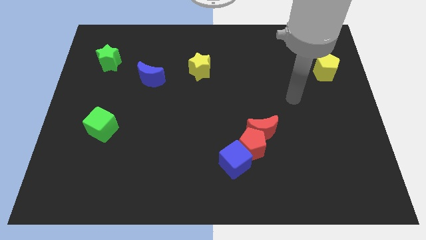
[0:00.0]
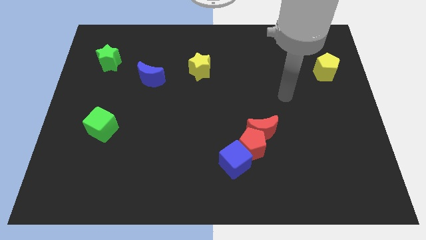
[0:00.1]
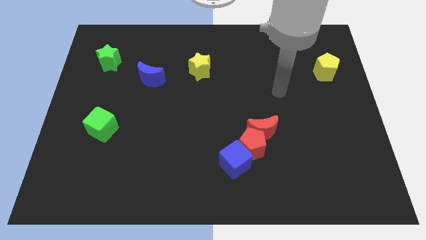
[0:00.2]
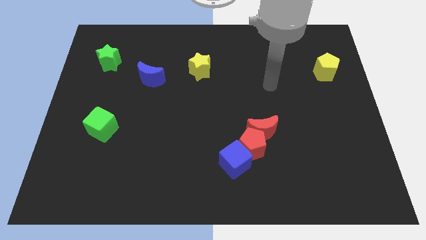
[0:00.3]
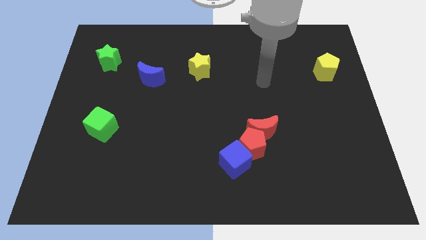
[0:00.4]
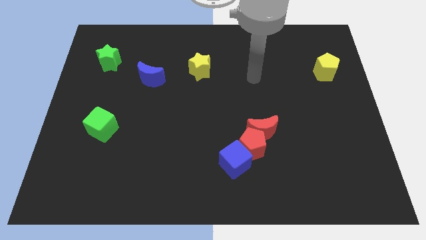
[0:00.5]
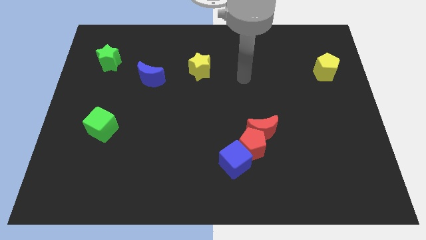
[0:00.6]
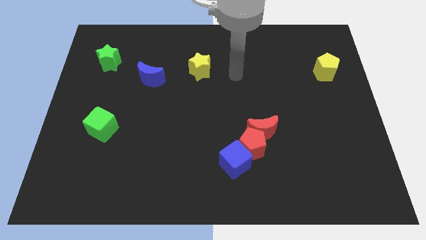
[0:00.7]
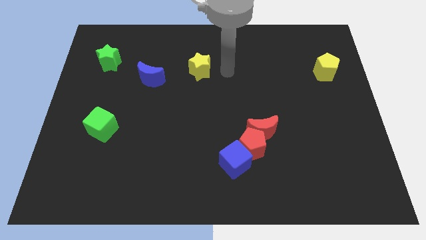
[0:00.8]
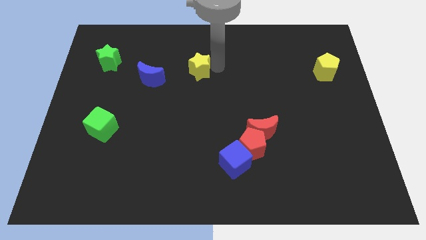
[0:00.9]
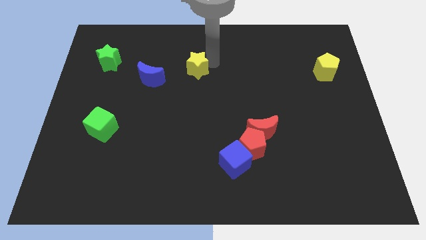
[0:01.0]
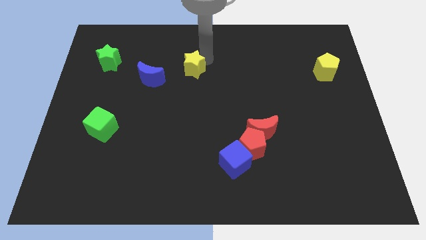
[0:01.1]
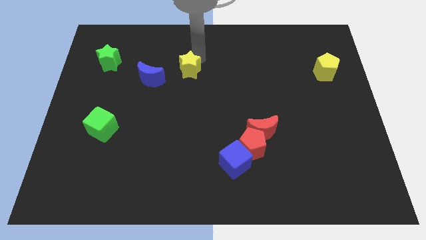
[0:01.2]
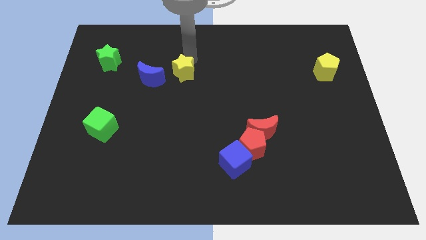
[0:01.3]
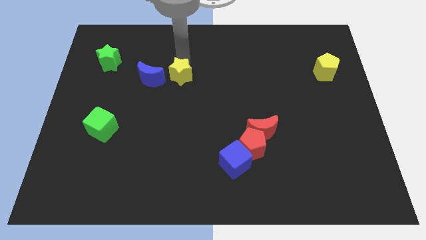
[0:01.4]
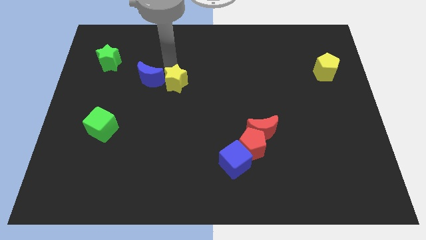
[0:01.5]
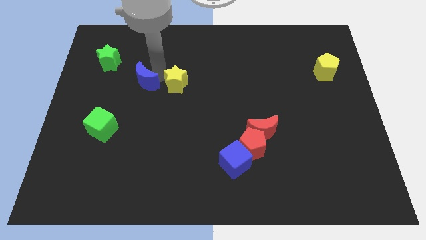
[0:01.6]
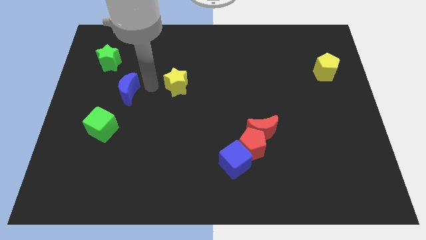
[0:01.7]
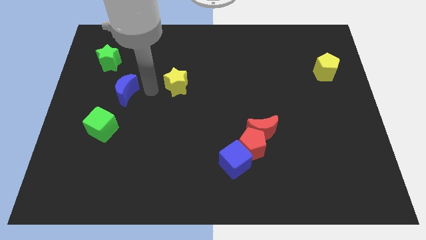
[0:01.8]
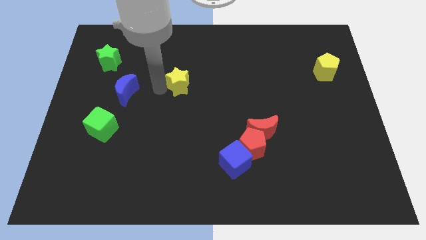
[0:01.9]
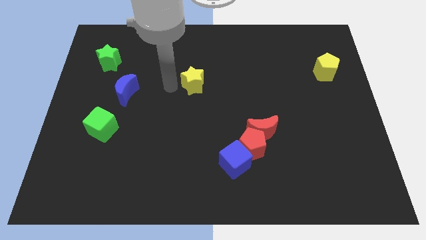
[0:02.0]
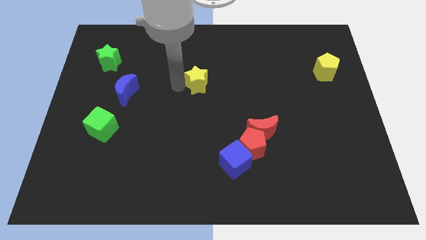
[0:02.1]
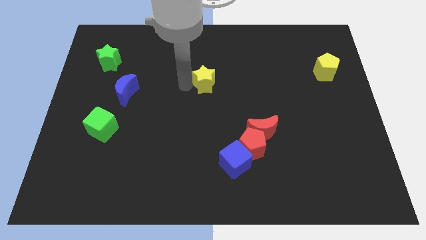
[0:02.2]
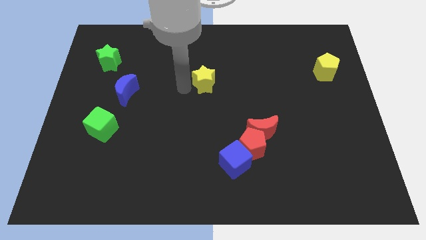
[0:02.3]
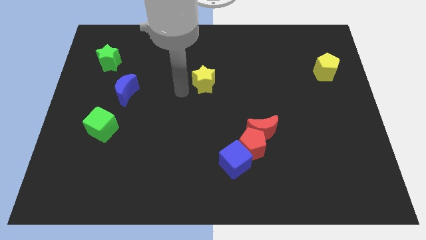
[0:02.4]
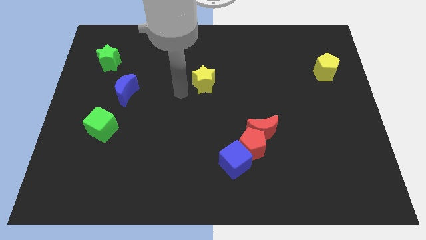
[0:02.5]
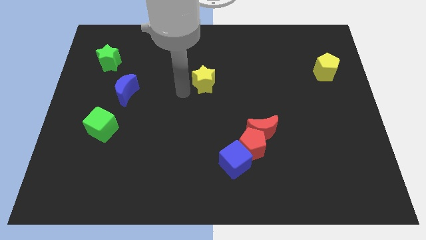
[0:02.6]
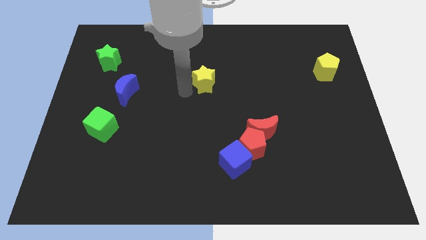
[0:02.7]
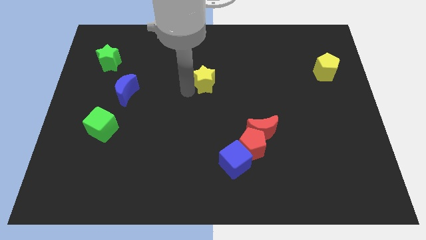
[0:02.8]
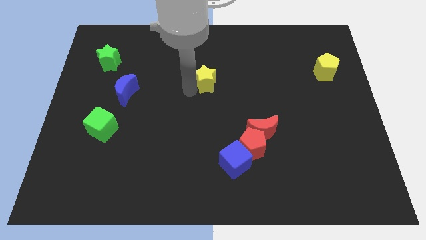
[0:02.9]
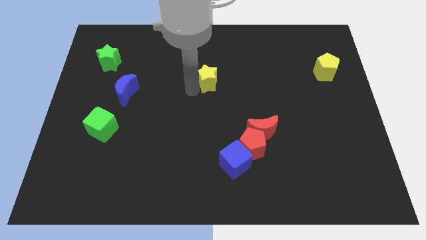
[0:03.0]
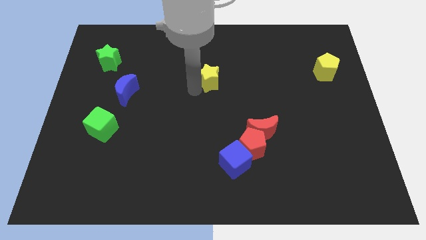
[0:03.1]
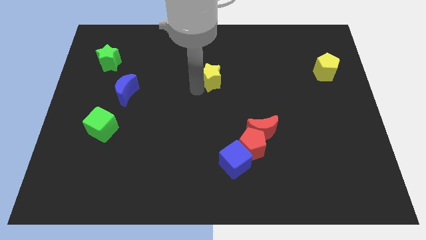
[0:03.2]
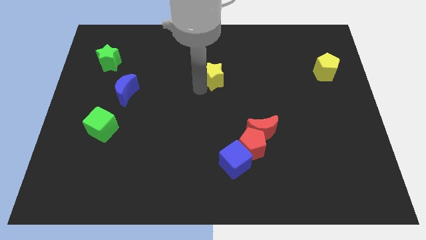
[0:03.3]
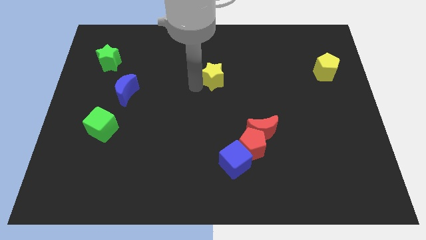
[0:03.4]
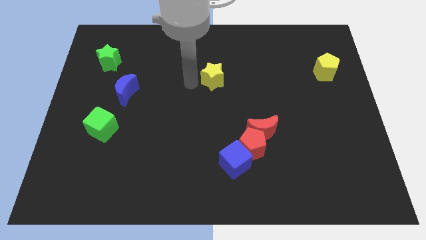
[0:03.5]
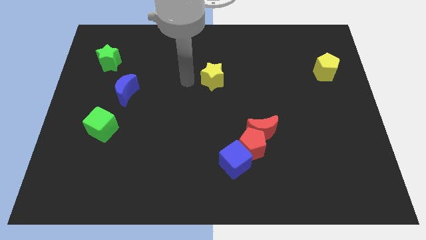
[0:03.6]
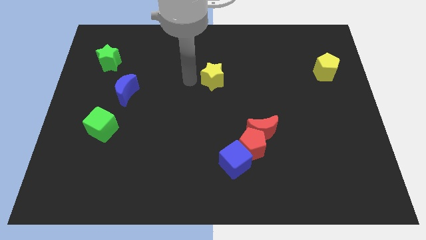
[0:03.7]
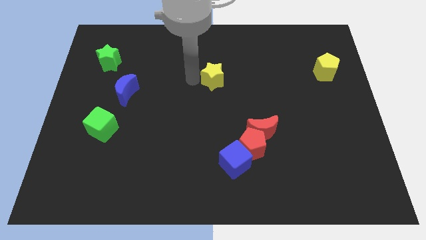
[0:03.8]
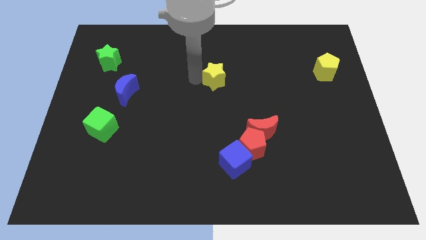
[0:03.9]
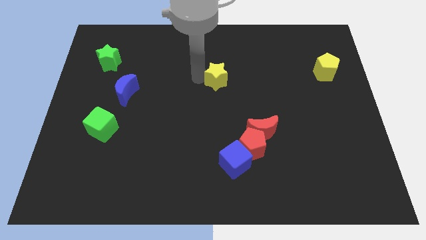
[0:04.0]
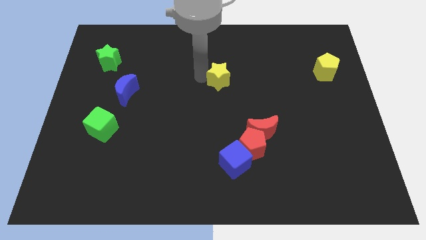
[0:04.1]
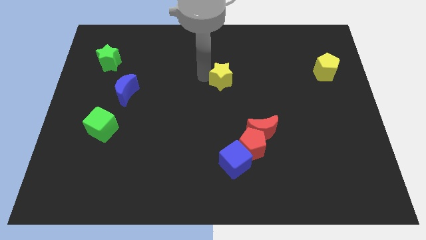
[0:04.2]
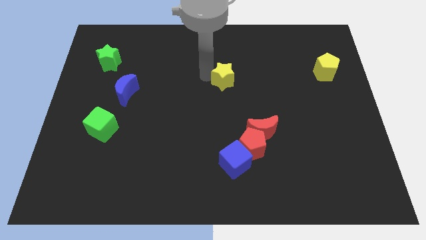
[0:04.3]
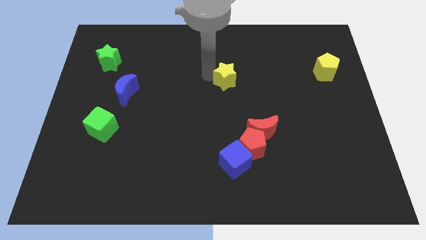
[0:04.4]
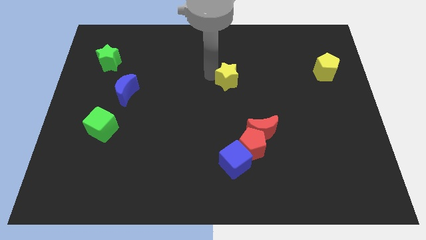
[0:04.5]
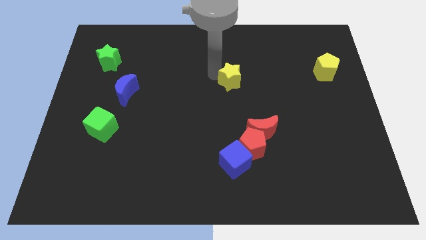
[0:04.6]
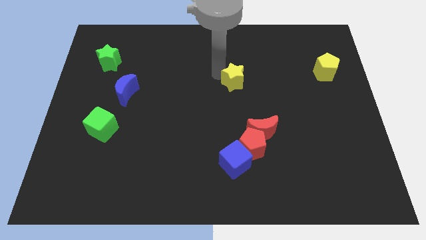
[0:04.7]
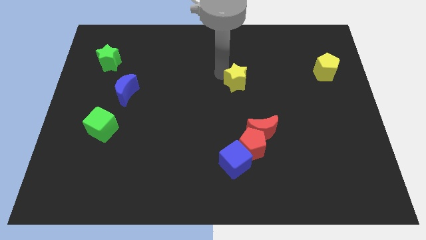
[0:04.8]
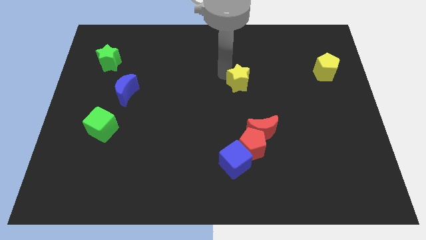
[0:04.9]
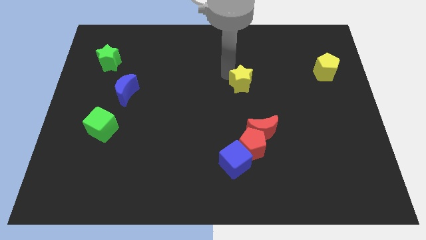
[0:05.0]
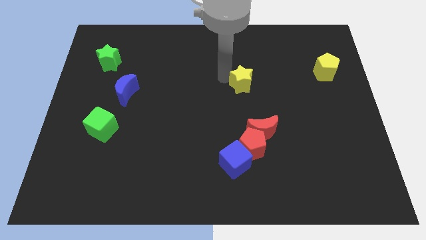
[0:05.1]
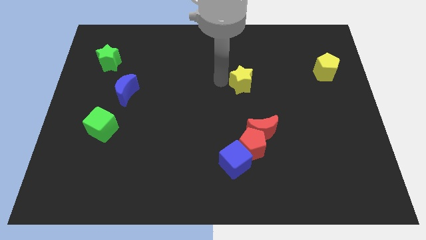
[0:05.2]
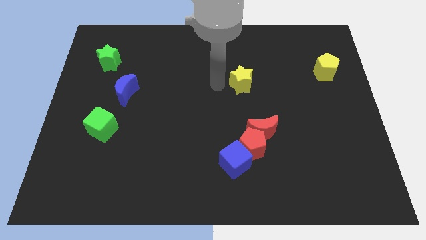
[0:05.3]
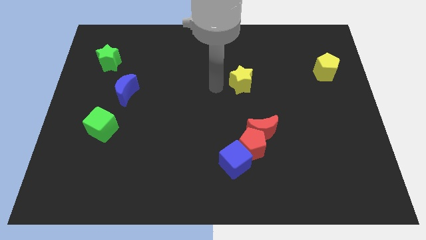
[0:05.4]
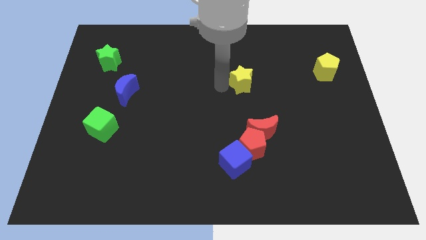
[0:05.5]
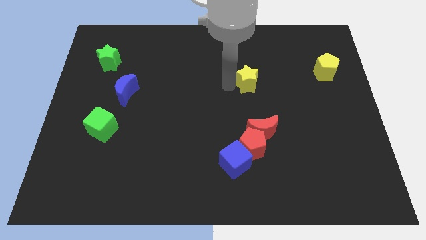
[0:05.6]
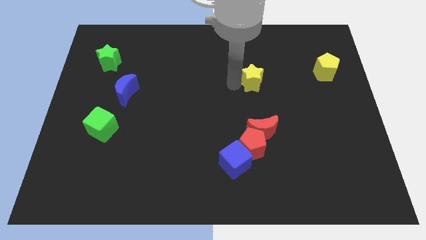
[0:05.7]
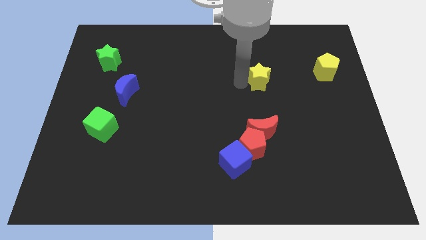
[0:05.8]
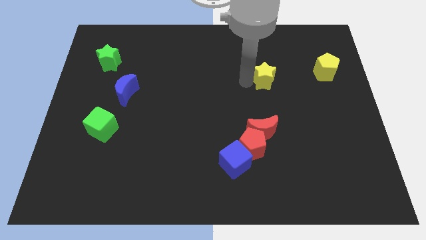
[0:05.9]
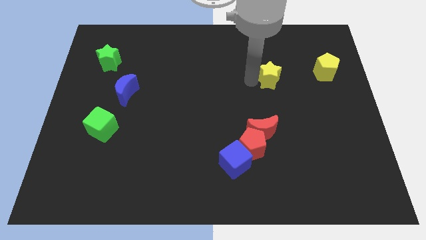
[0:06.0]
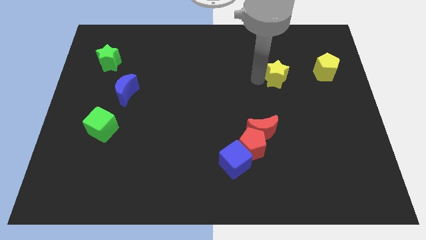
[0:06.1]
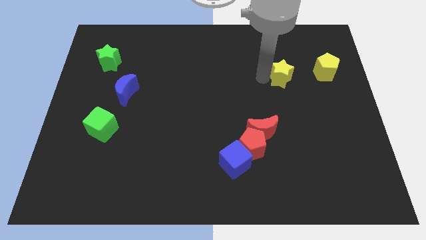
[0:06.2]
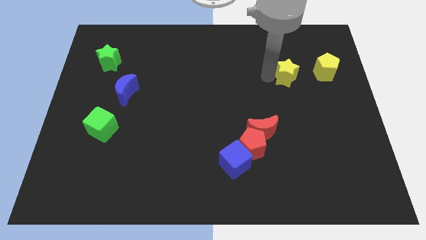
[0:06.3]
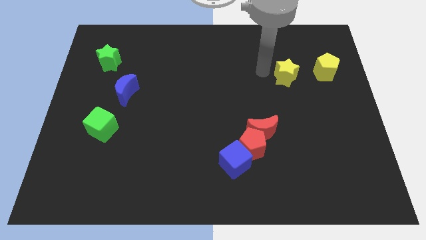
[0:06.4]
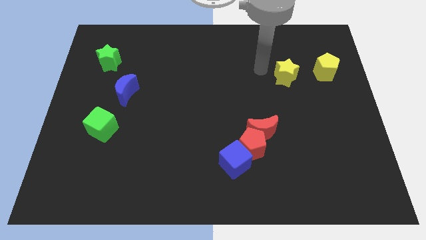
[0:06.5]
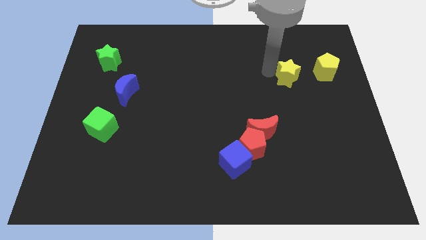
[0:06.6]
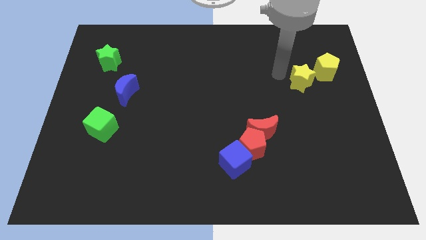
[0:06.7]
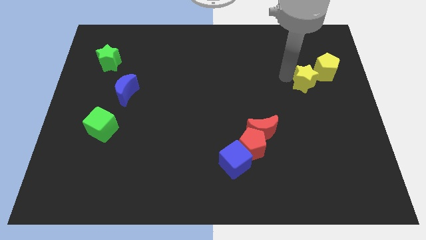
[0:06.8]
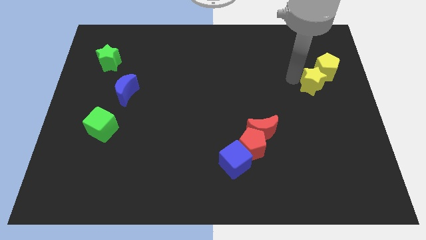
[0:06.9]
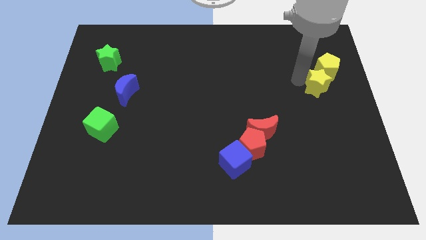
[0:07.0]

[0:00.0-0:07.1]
move the yellow star to the center right
